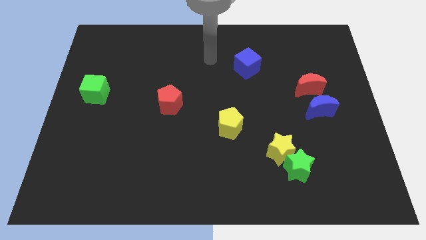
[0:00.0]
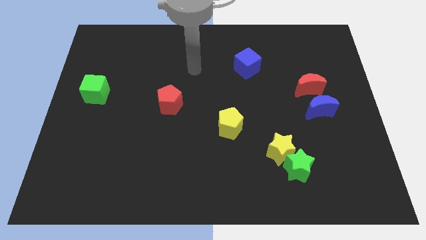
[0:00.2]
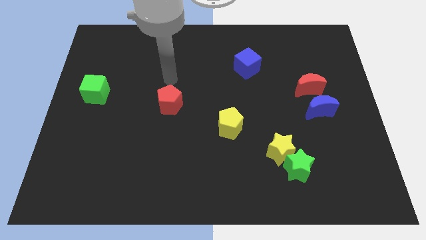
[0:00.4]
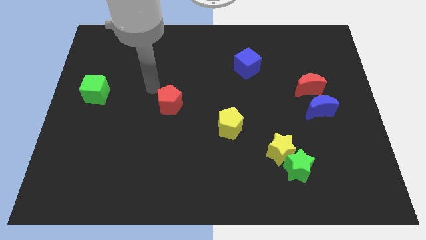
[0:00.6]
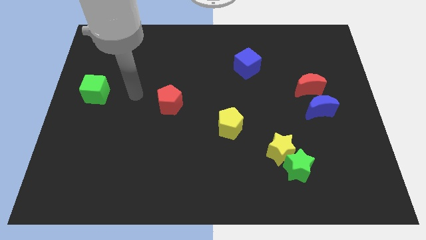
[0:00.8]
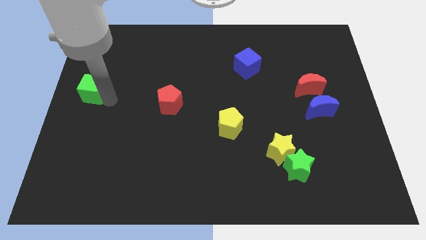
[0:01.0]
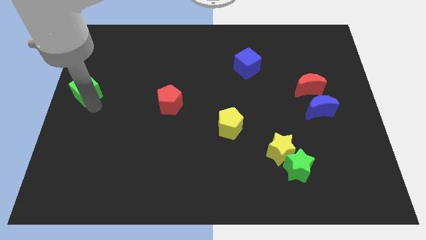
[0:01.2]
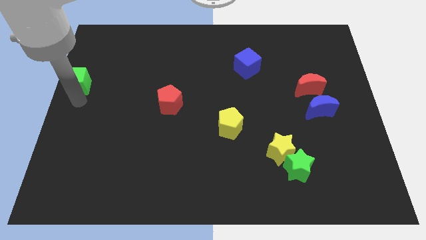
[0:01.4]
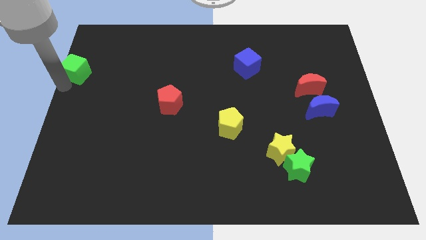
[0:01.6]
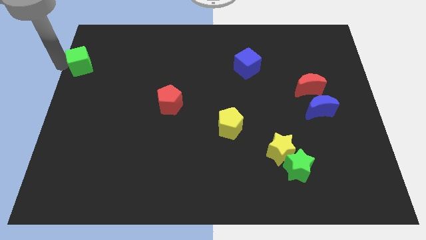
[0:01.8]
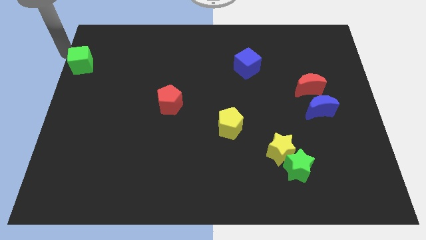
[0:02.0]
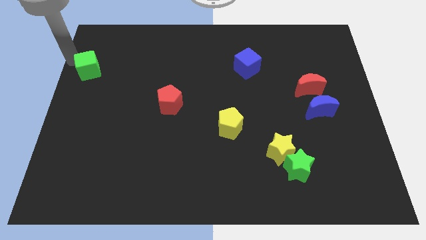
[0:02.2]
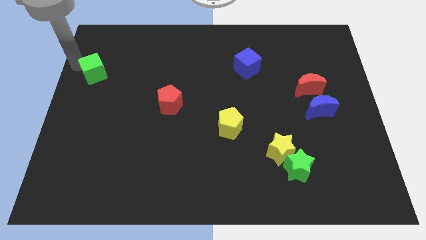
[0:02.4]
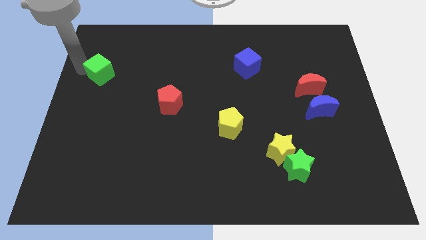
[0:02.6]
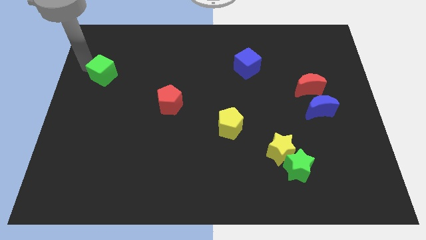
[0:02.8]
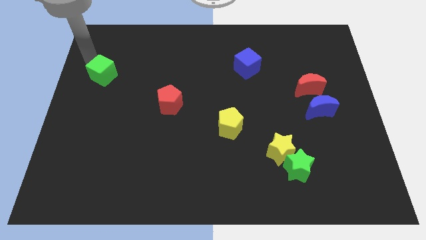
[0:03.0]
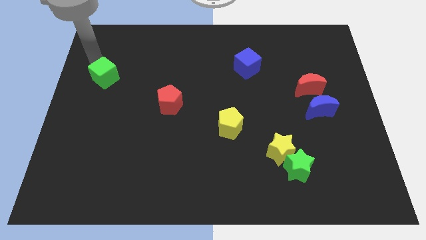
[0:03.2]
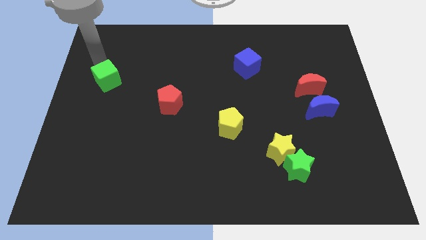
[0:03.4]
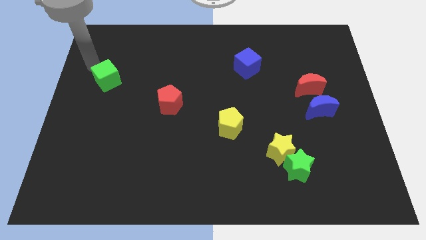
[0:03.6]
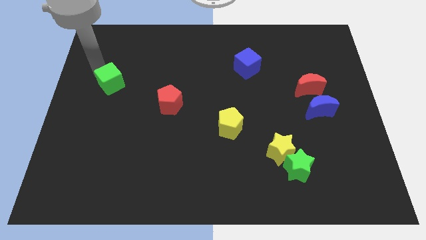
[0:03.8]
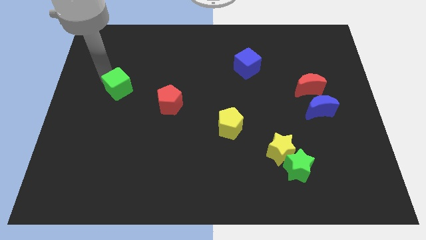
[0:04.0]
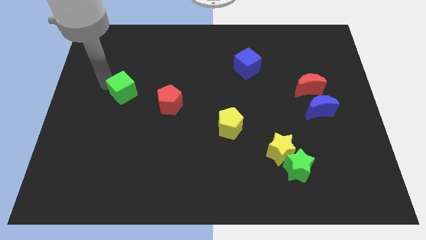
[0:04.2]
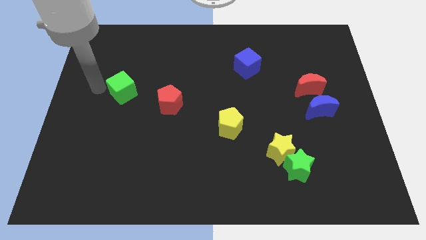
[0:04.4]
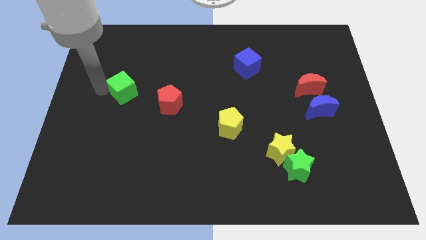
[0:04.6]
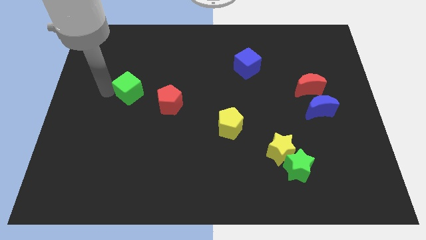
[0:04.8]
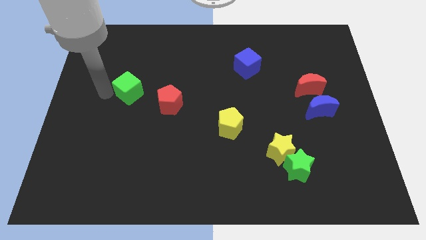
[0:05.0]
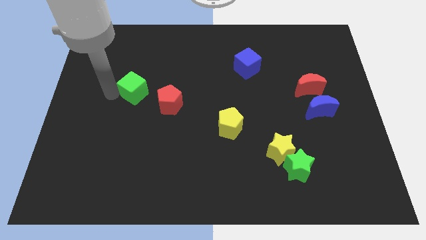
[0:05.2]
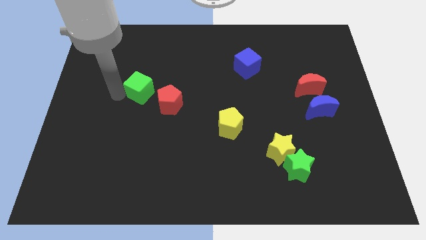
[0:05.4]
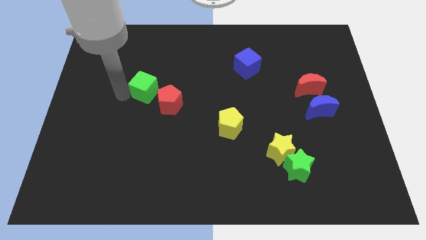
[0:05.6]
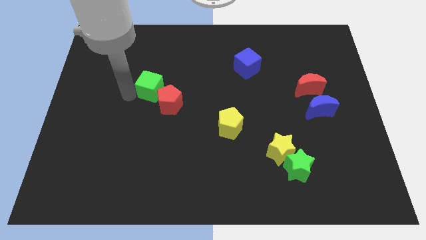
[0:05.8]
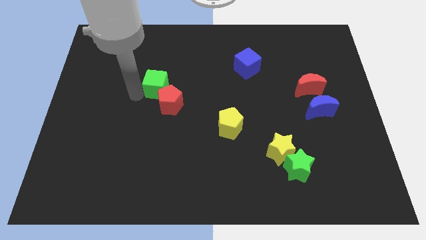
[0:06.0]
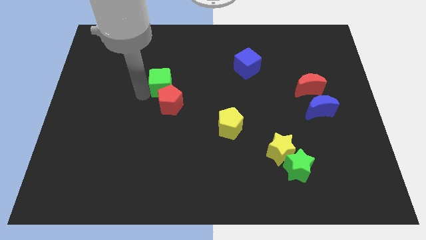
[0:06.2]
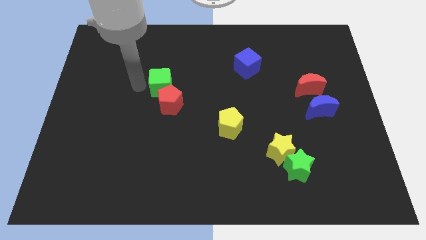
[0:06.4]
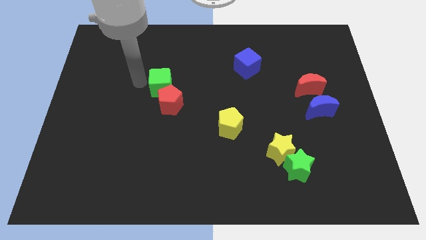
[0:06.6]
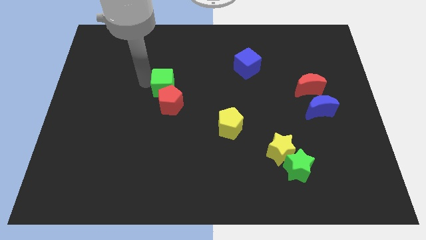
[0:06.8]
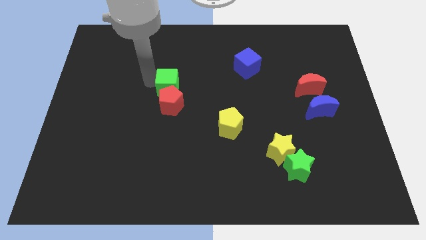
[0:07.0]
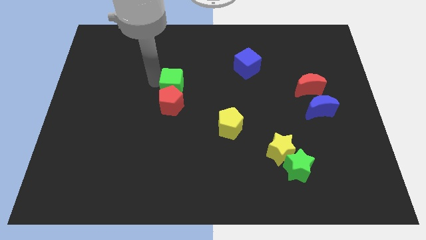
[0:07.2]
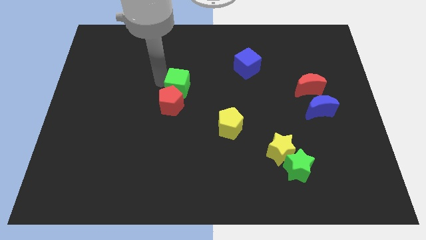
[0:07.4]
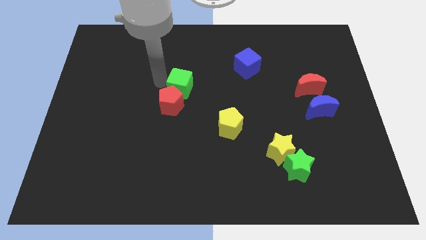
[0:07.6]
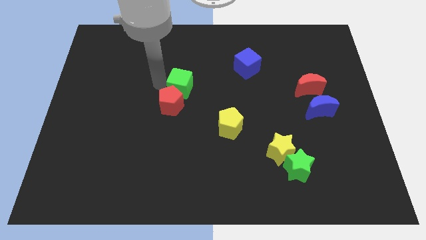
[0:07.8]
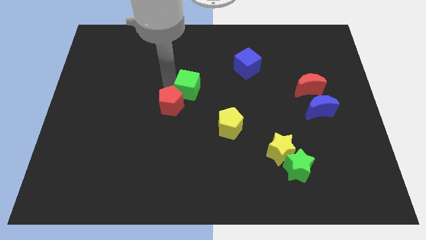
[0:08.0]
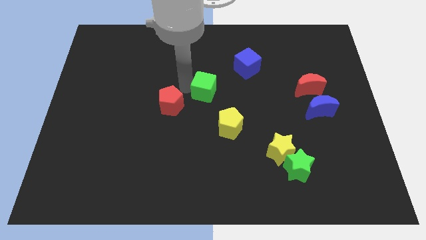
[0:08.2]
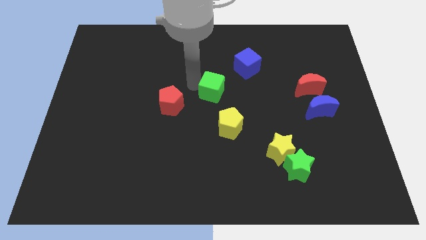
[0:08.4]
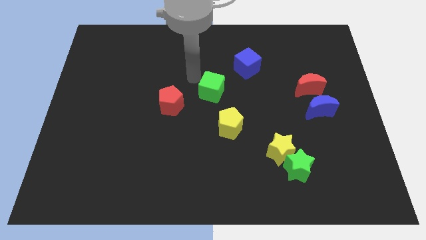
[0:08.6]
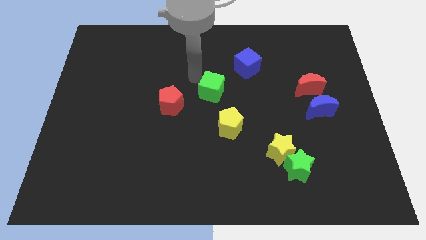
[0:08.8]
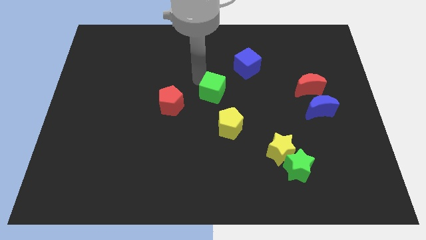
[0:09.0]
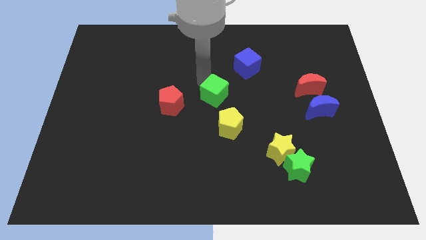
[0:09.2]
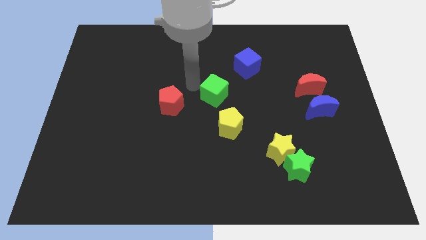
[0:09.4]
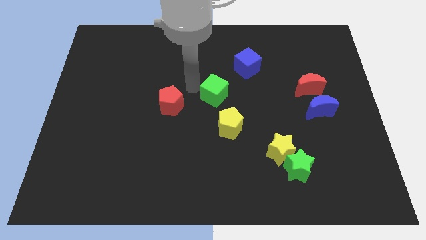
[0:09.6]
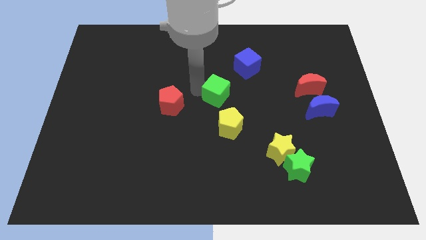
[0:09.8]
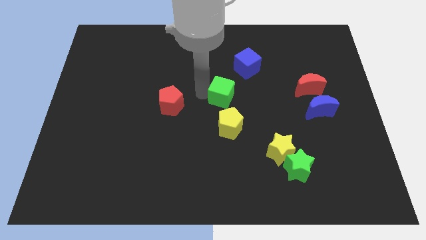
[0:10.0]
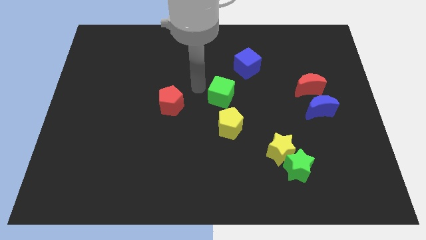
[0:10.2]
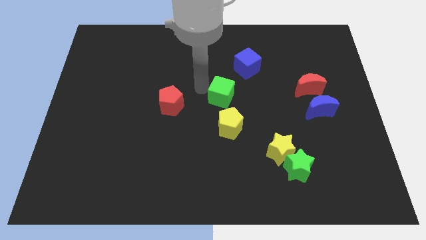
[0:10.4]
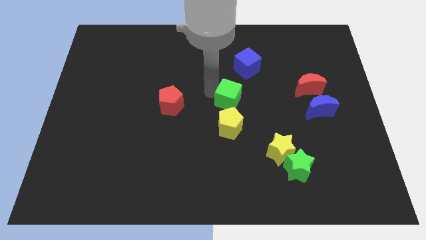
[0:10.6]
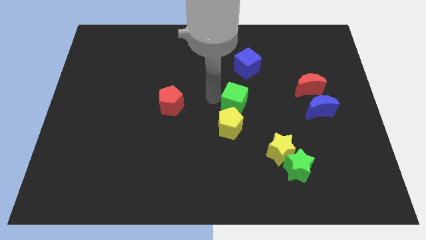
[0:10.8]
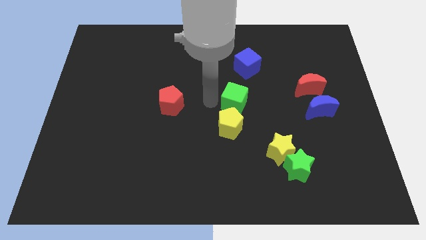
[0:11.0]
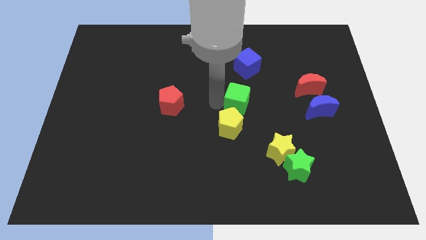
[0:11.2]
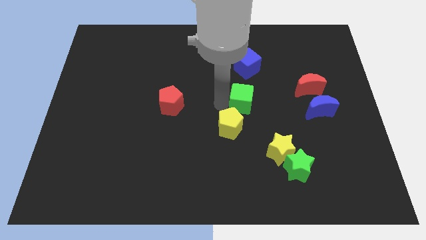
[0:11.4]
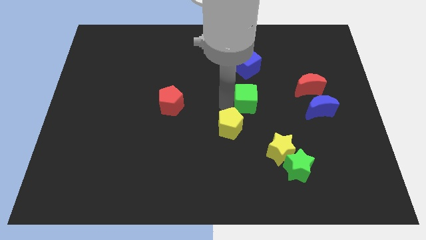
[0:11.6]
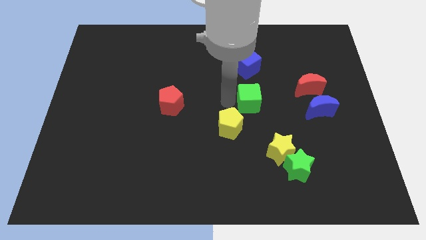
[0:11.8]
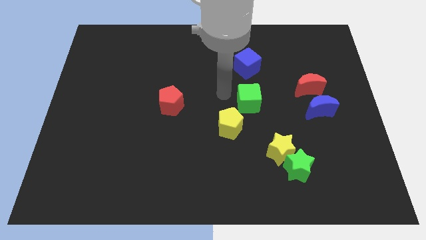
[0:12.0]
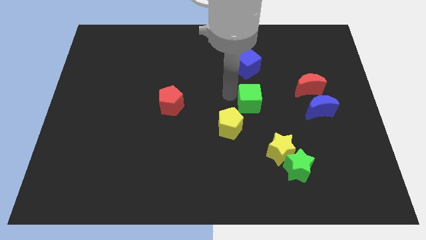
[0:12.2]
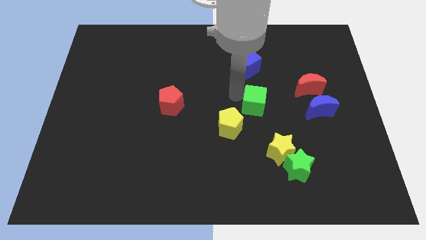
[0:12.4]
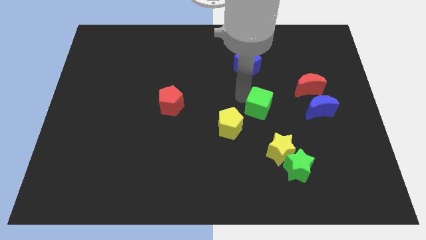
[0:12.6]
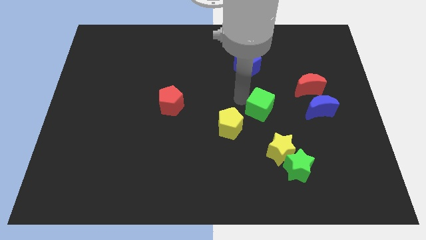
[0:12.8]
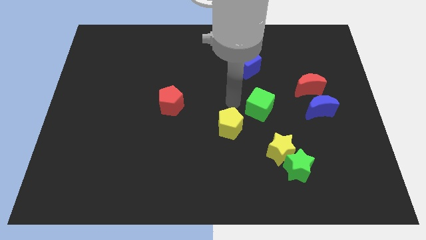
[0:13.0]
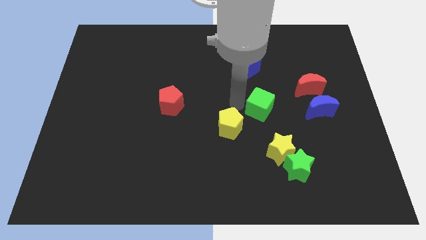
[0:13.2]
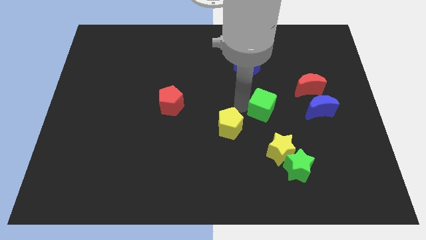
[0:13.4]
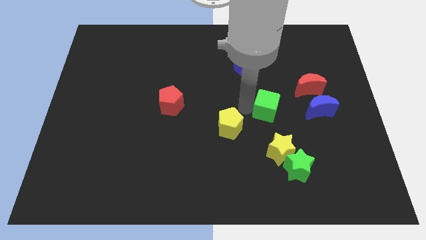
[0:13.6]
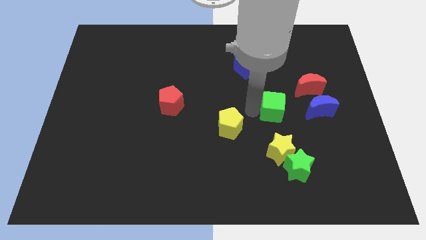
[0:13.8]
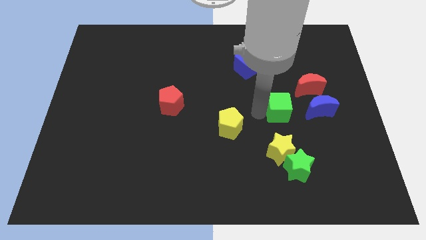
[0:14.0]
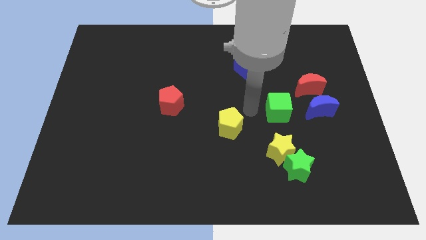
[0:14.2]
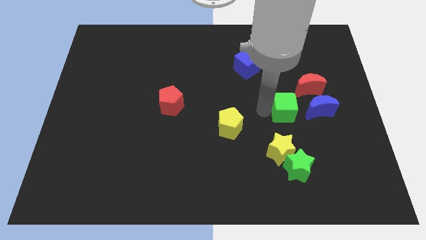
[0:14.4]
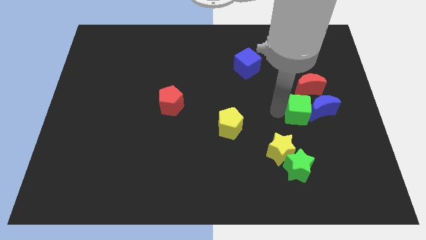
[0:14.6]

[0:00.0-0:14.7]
put the green cube to the blue moon
